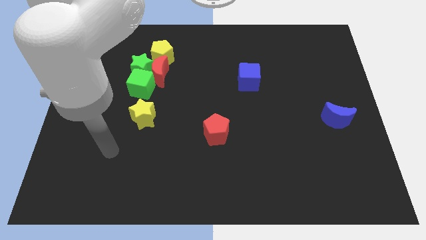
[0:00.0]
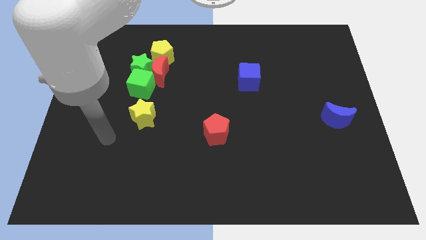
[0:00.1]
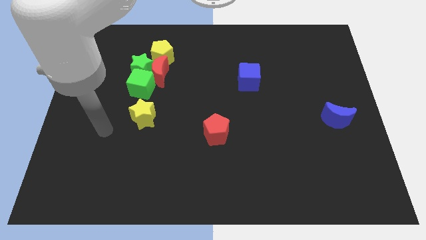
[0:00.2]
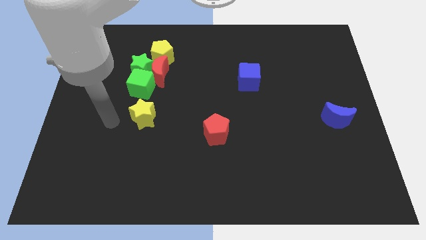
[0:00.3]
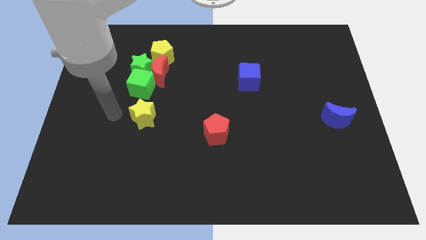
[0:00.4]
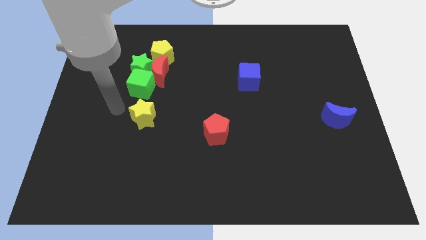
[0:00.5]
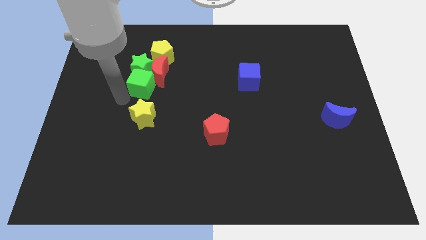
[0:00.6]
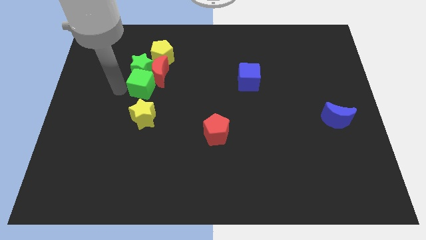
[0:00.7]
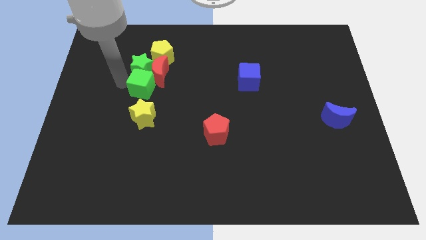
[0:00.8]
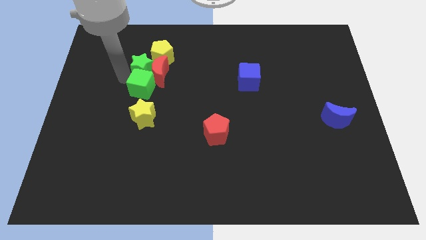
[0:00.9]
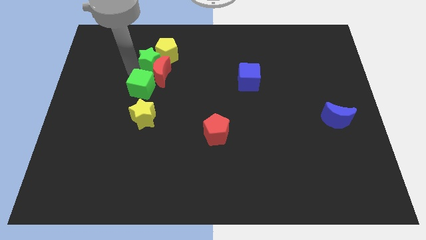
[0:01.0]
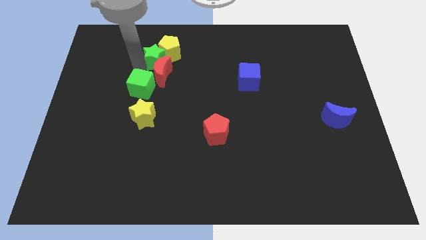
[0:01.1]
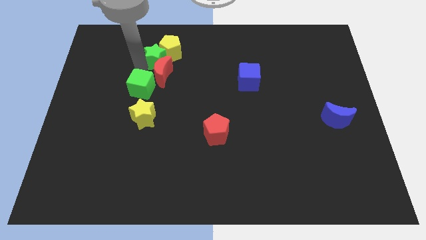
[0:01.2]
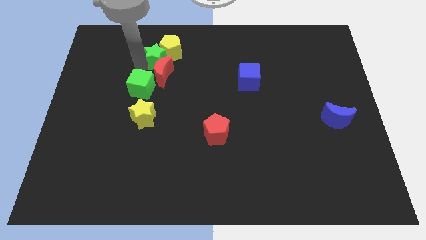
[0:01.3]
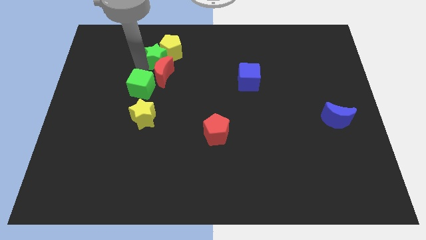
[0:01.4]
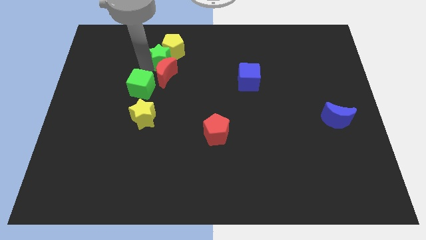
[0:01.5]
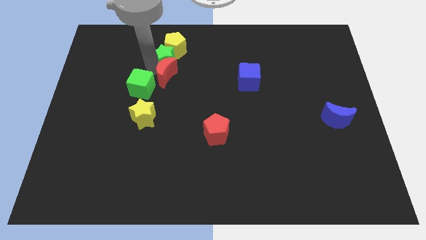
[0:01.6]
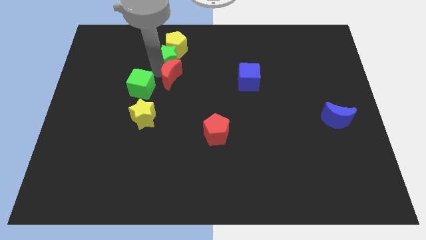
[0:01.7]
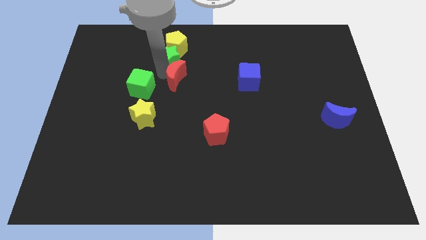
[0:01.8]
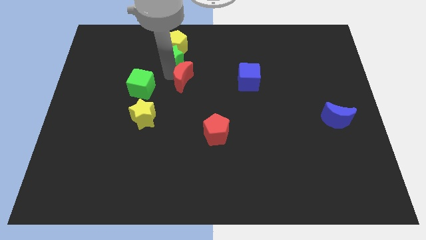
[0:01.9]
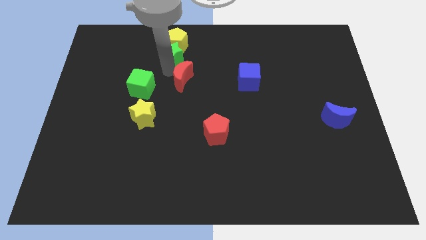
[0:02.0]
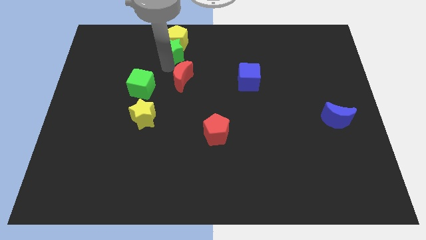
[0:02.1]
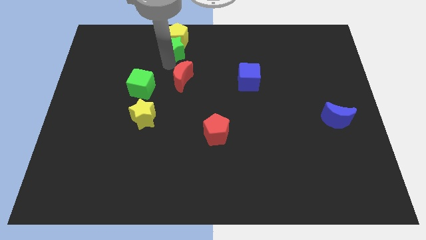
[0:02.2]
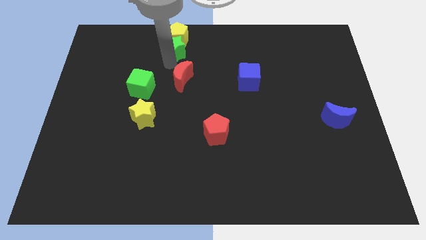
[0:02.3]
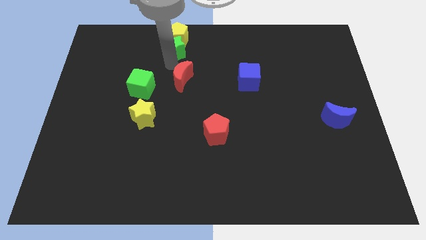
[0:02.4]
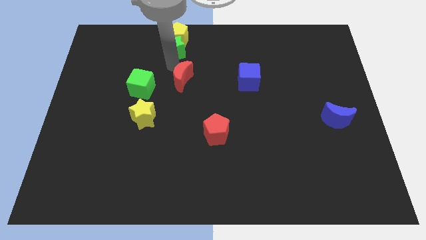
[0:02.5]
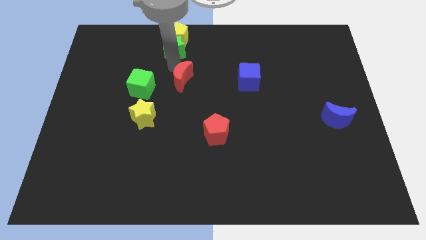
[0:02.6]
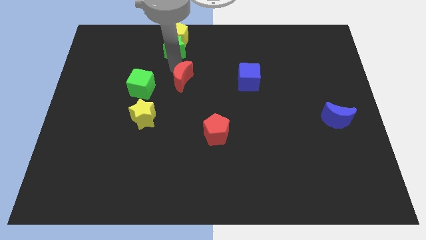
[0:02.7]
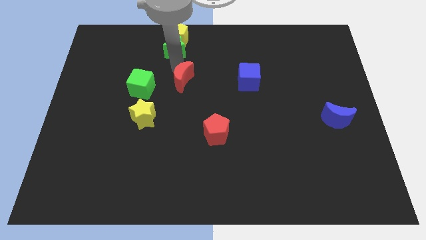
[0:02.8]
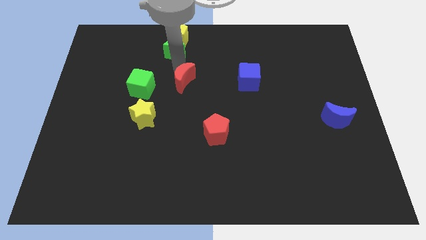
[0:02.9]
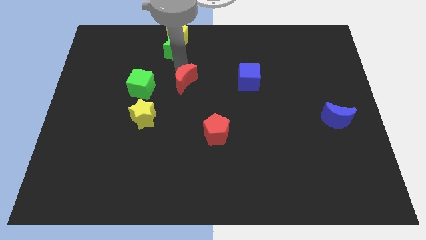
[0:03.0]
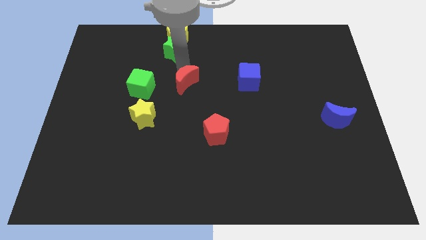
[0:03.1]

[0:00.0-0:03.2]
separate the red moon from the green star, green cube, and yellow pentagon

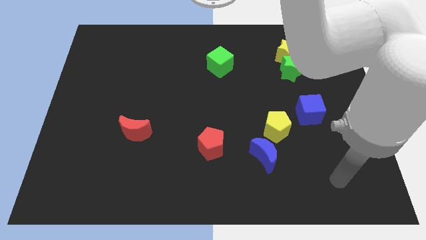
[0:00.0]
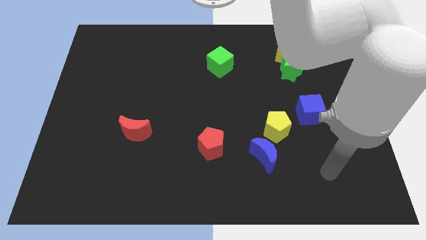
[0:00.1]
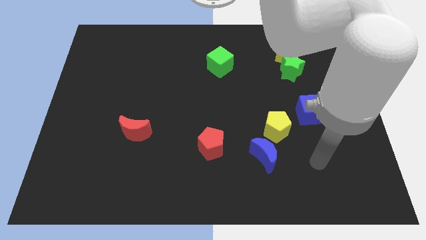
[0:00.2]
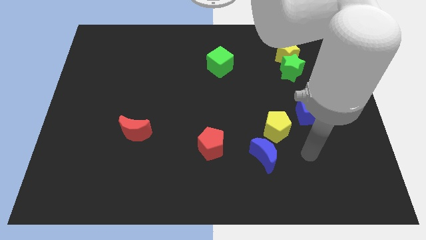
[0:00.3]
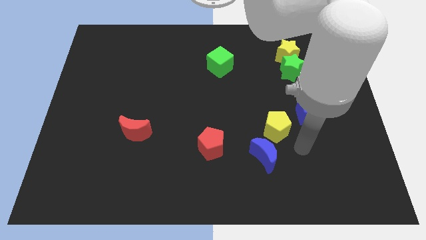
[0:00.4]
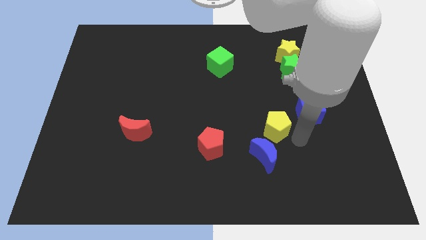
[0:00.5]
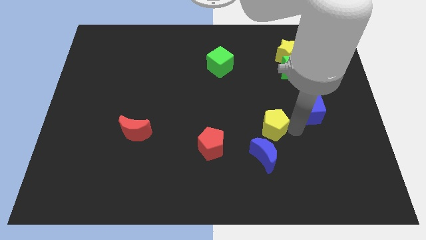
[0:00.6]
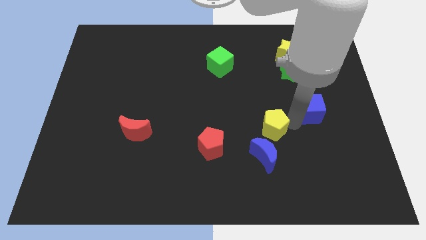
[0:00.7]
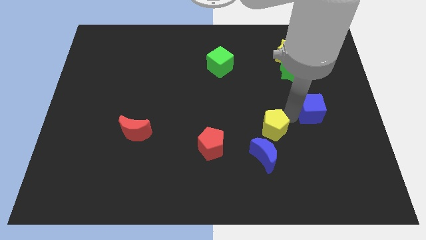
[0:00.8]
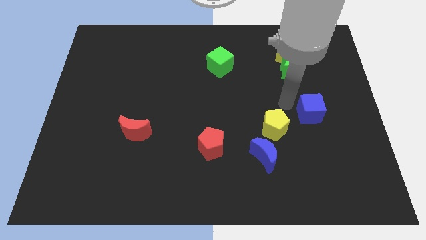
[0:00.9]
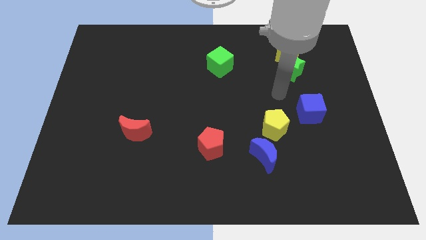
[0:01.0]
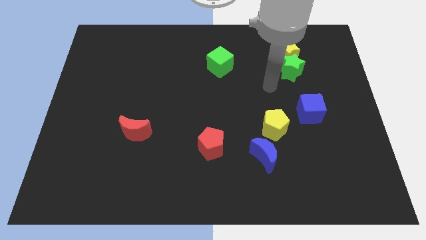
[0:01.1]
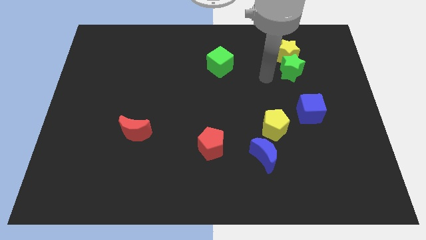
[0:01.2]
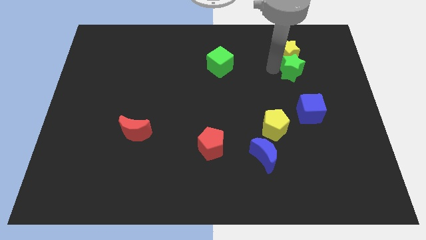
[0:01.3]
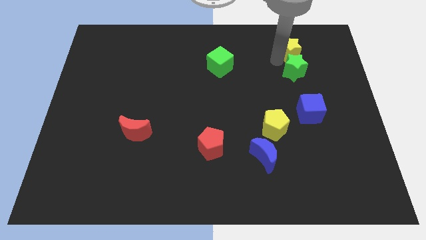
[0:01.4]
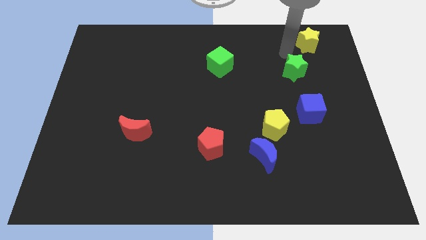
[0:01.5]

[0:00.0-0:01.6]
separate the green star from the yellow star

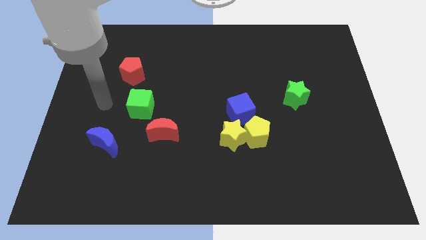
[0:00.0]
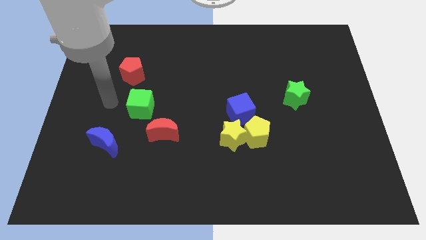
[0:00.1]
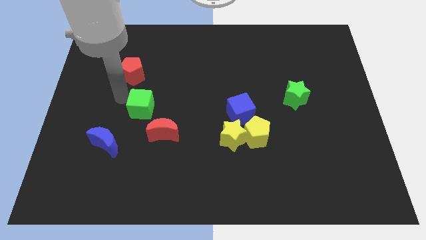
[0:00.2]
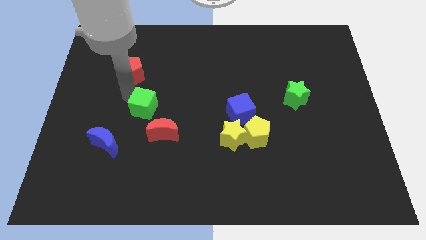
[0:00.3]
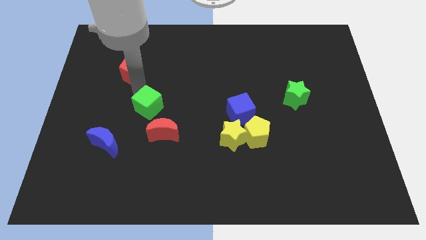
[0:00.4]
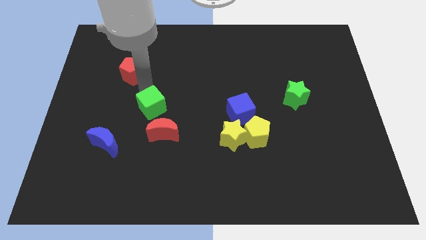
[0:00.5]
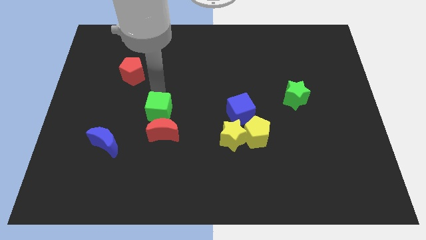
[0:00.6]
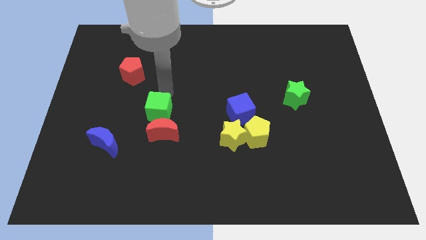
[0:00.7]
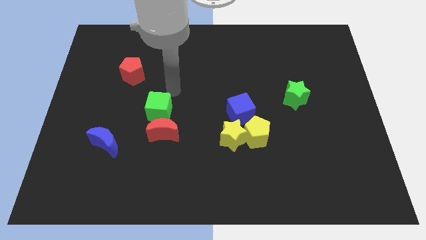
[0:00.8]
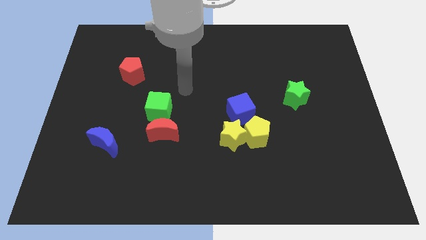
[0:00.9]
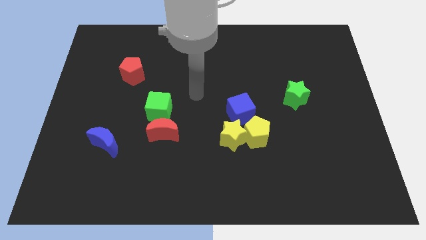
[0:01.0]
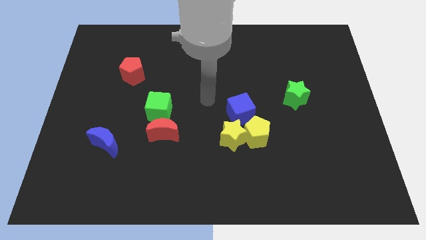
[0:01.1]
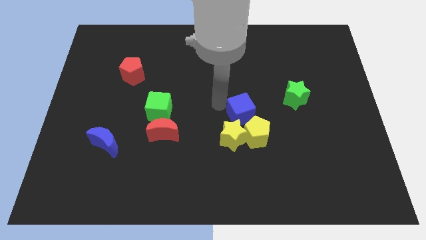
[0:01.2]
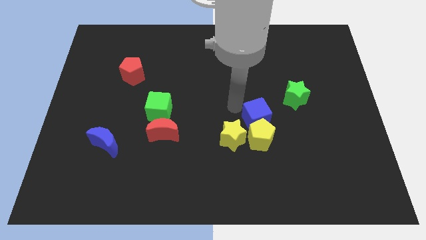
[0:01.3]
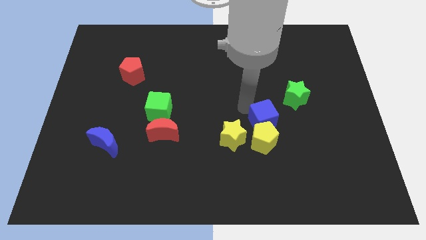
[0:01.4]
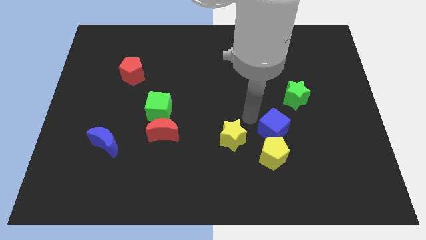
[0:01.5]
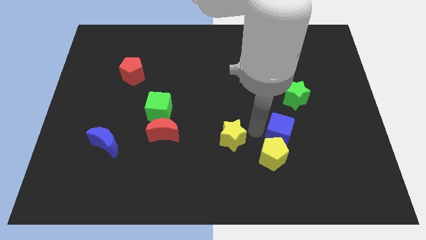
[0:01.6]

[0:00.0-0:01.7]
move the yellow star away from the yellow pentagon and blue cube

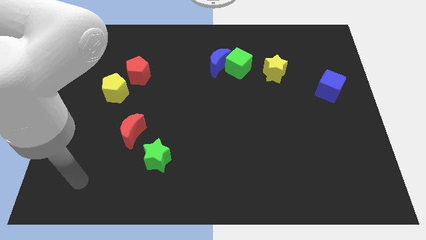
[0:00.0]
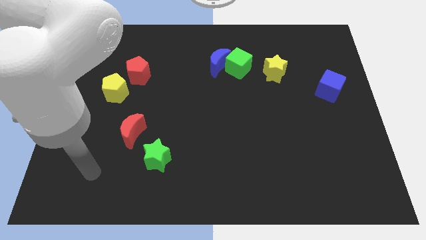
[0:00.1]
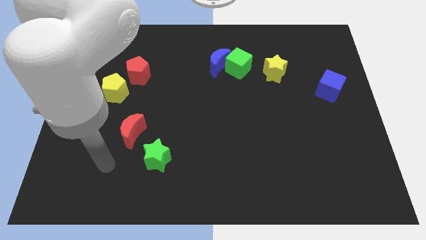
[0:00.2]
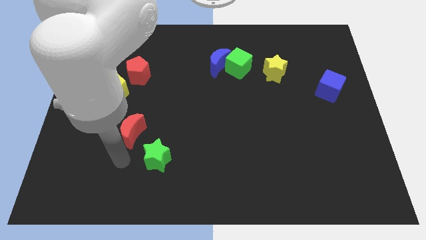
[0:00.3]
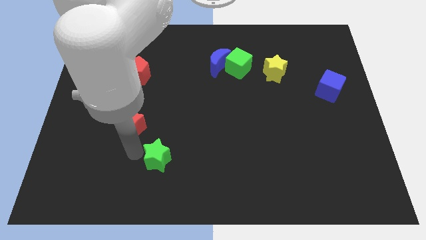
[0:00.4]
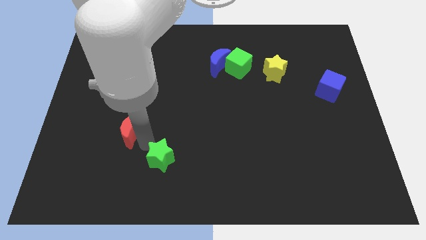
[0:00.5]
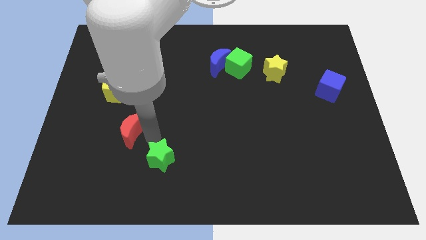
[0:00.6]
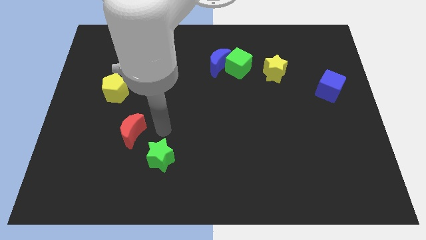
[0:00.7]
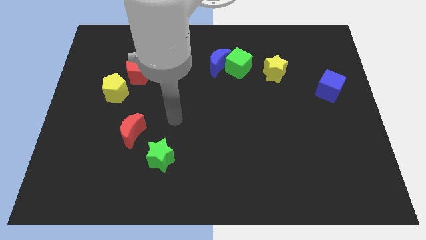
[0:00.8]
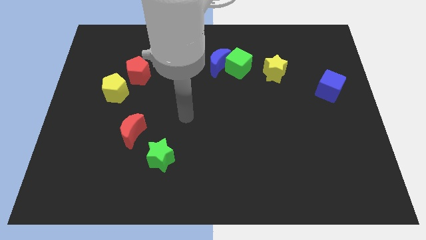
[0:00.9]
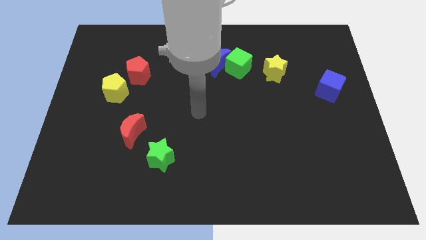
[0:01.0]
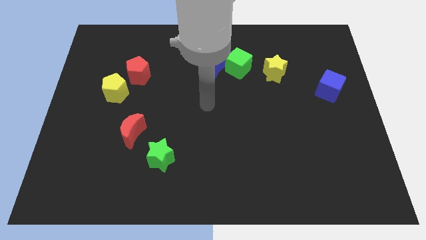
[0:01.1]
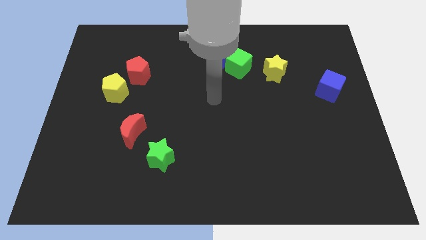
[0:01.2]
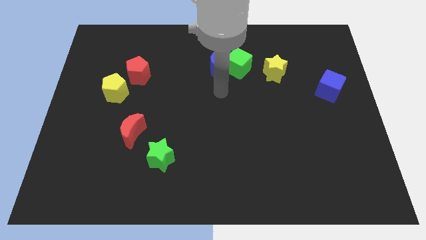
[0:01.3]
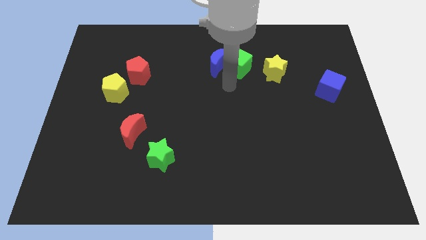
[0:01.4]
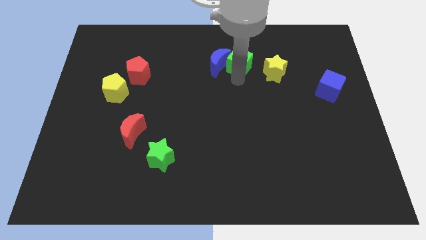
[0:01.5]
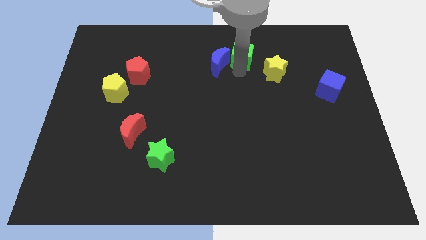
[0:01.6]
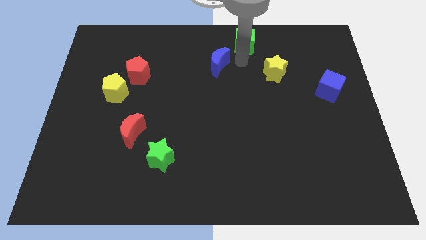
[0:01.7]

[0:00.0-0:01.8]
move the blue moon away from the green cube

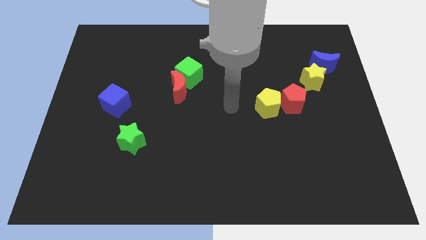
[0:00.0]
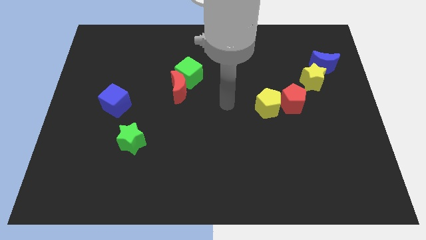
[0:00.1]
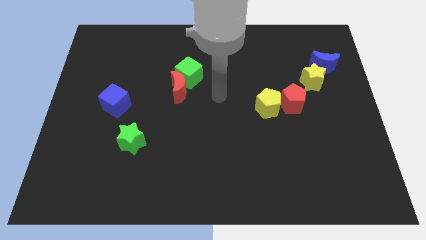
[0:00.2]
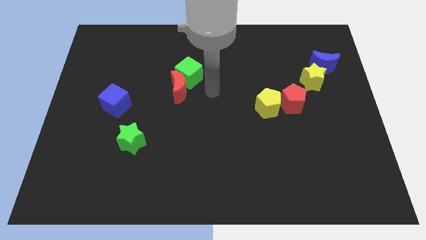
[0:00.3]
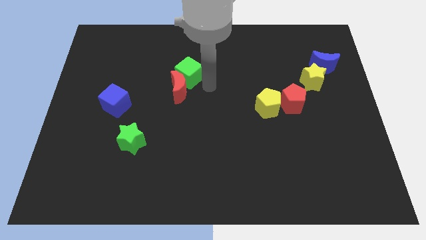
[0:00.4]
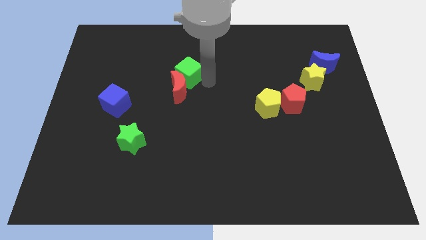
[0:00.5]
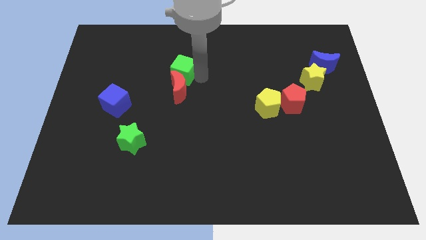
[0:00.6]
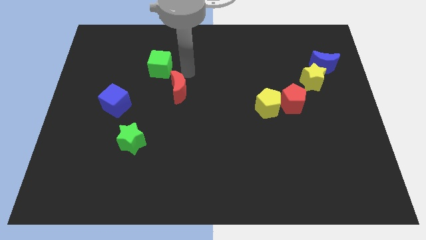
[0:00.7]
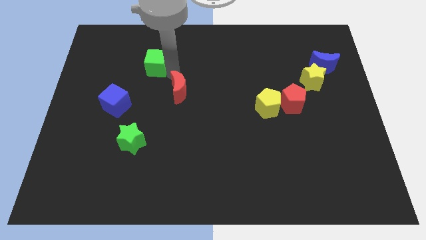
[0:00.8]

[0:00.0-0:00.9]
separate the red moon from the green cube
